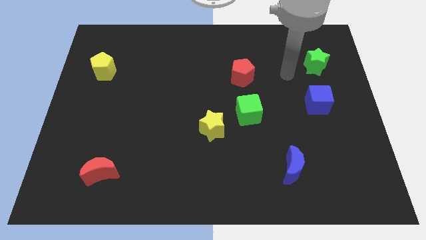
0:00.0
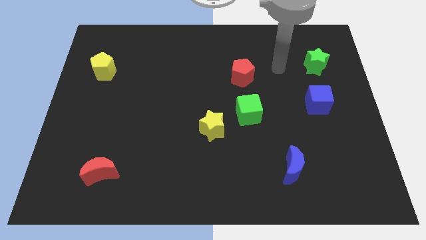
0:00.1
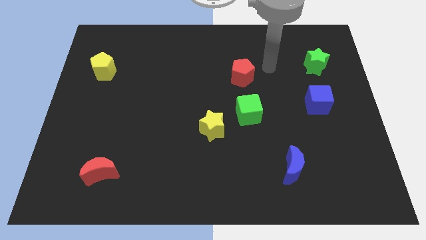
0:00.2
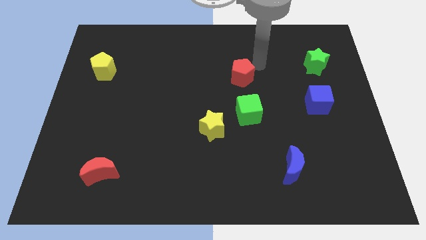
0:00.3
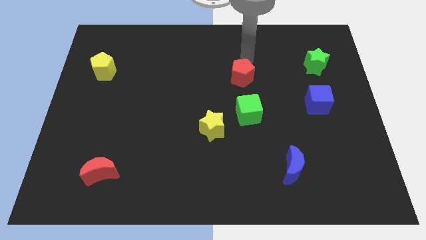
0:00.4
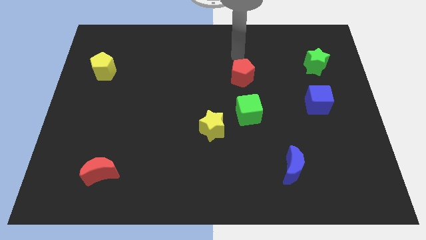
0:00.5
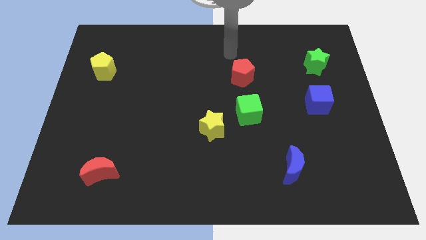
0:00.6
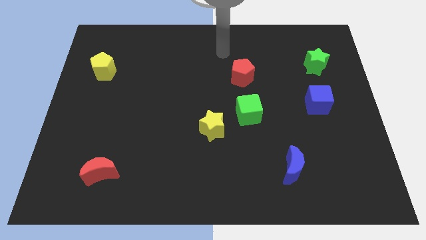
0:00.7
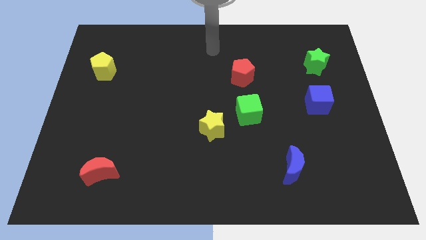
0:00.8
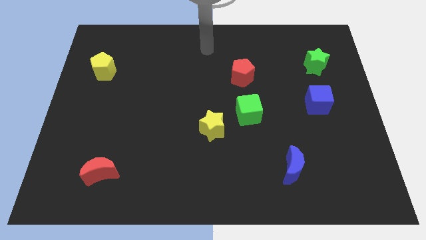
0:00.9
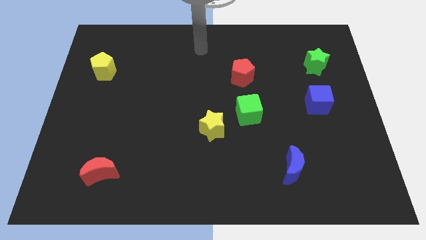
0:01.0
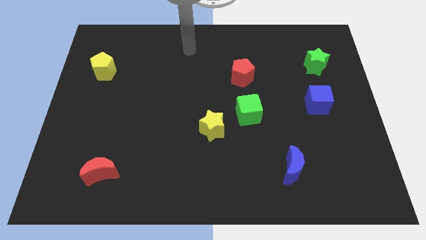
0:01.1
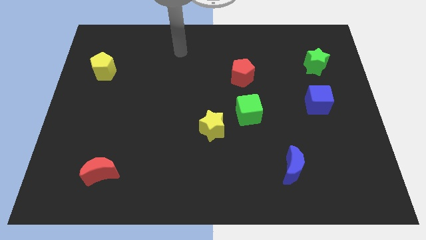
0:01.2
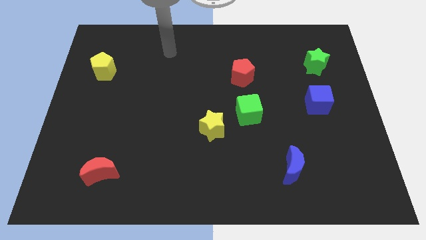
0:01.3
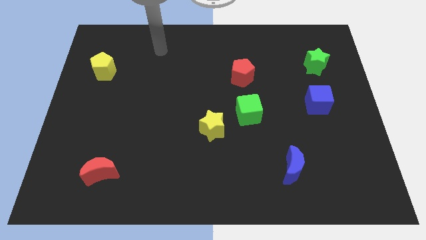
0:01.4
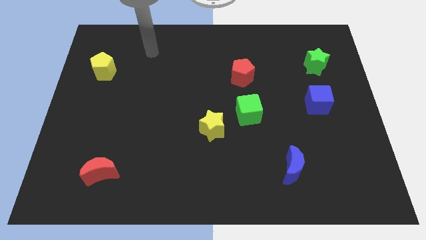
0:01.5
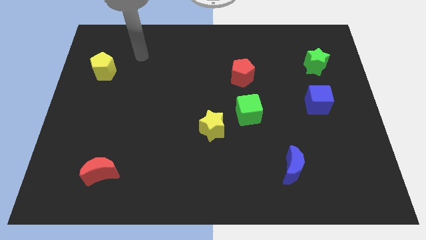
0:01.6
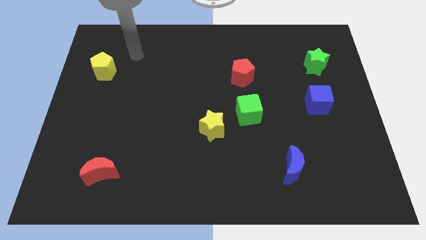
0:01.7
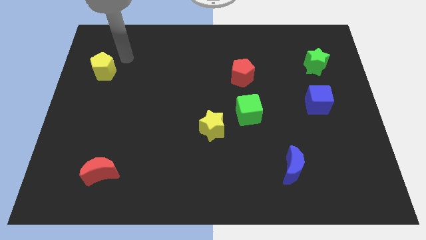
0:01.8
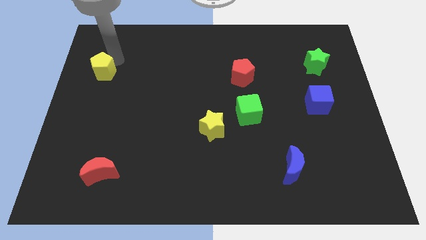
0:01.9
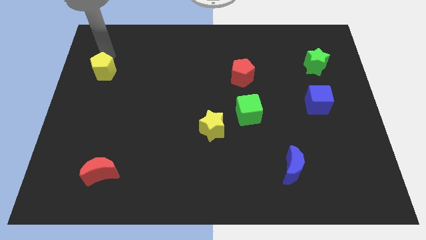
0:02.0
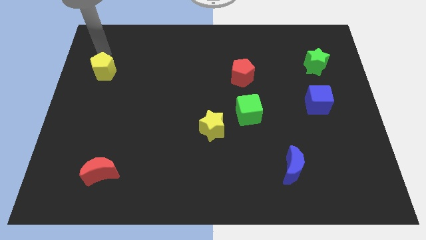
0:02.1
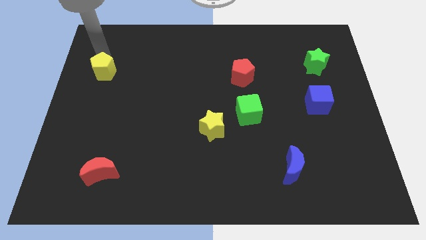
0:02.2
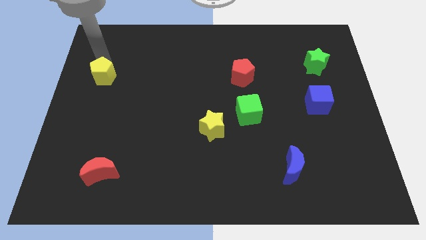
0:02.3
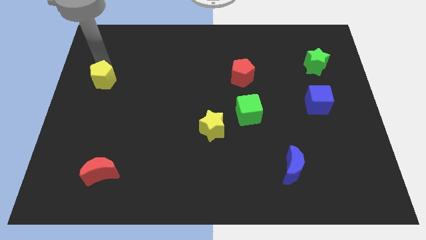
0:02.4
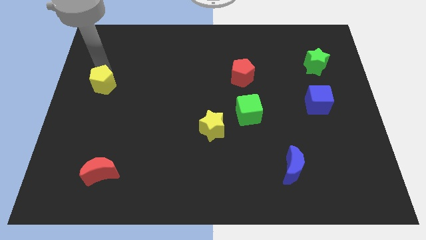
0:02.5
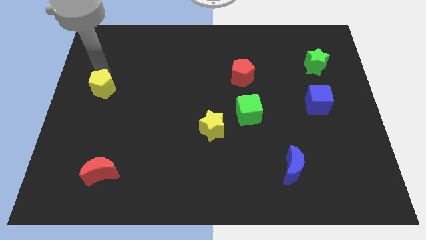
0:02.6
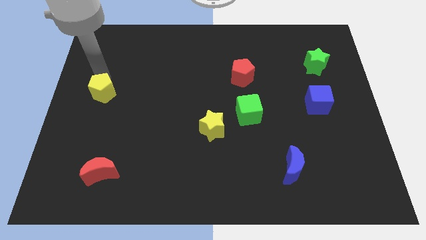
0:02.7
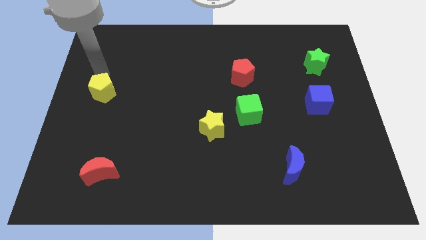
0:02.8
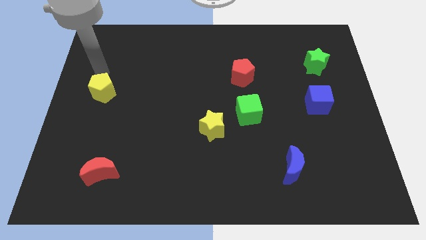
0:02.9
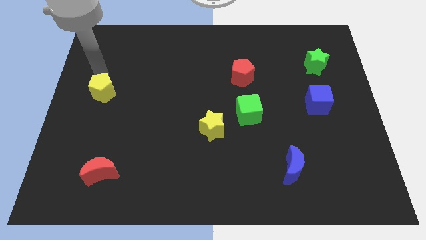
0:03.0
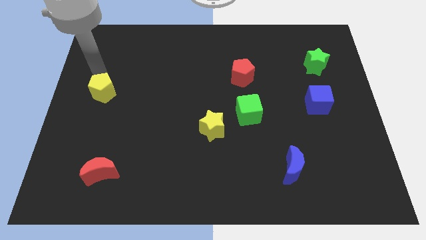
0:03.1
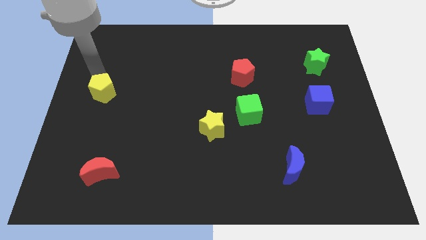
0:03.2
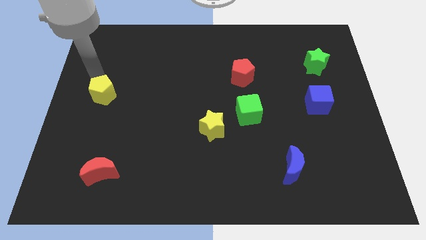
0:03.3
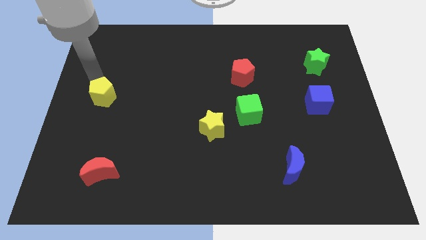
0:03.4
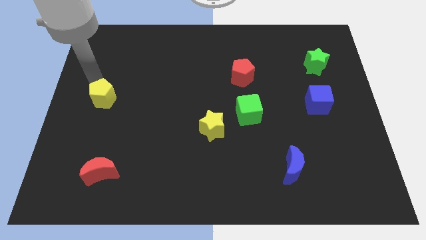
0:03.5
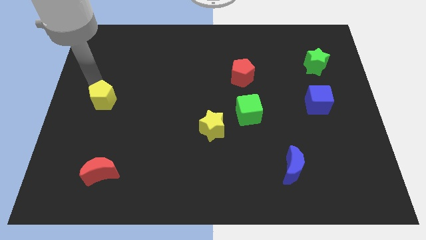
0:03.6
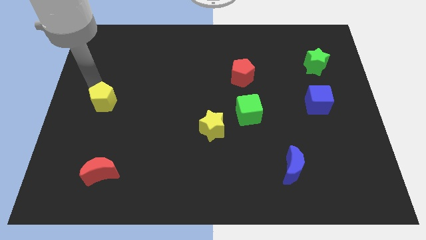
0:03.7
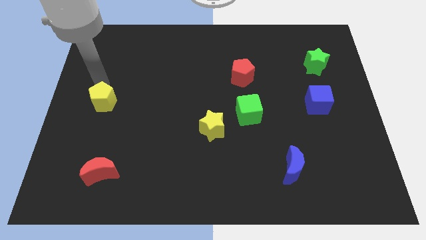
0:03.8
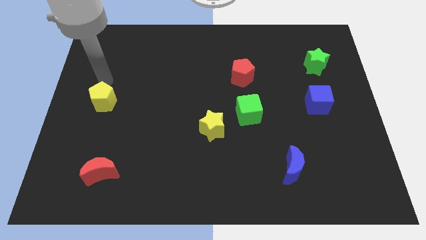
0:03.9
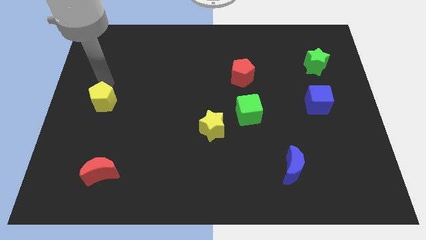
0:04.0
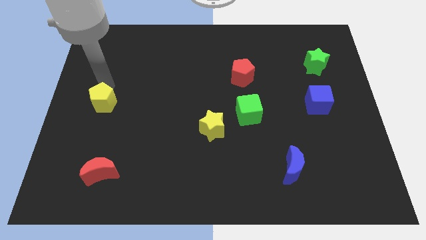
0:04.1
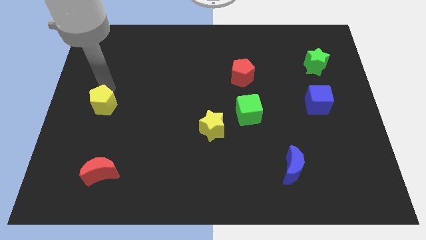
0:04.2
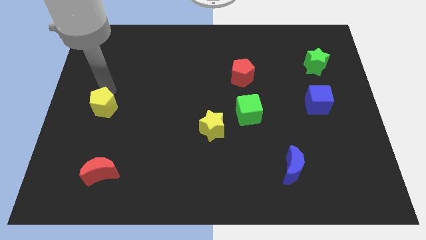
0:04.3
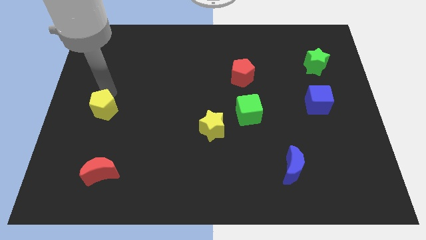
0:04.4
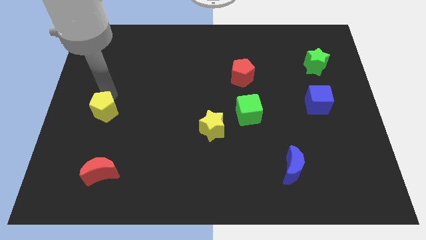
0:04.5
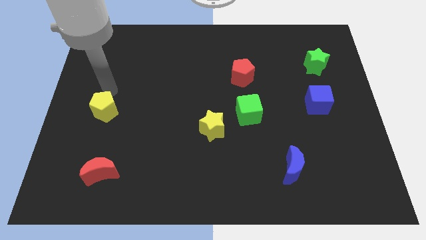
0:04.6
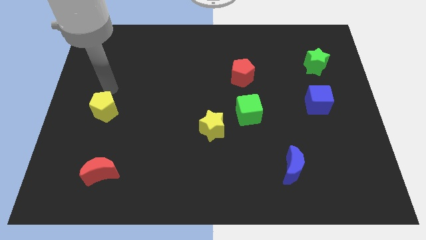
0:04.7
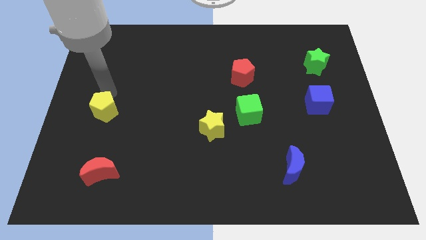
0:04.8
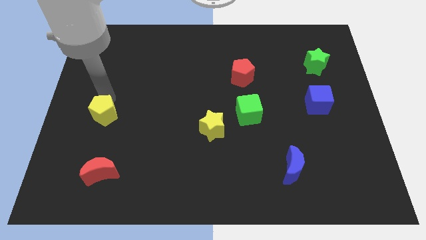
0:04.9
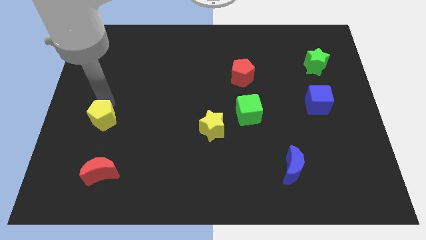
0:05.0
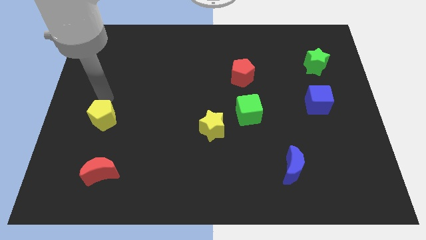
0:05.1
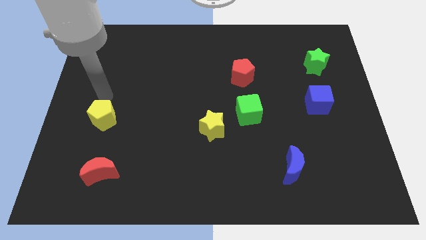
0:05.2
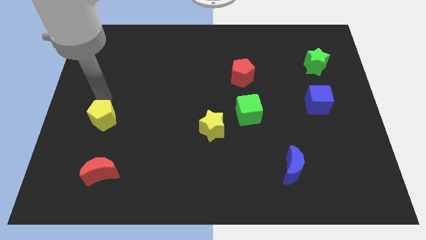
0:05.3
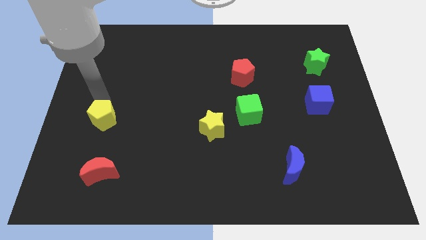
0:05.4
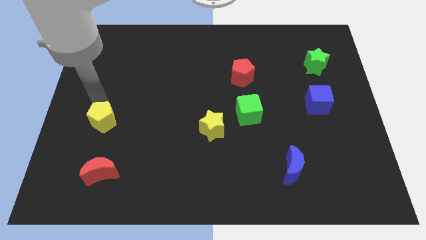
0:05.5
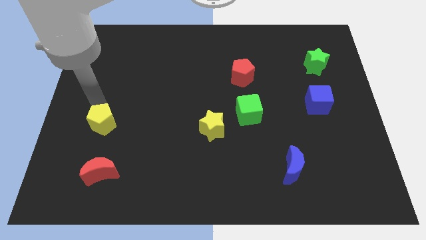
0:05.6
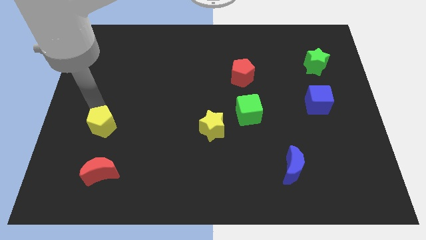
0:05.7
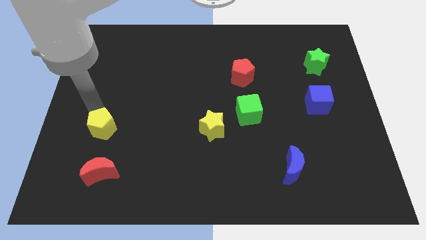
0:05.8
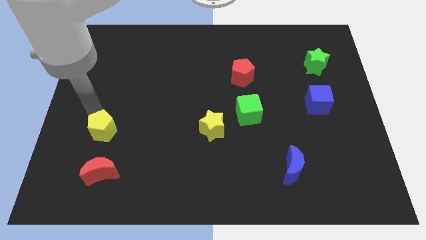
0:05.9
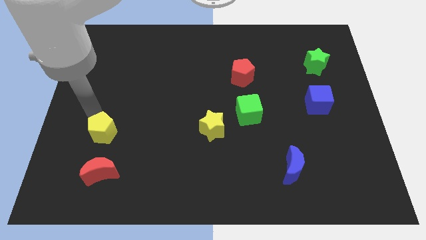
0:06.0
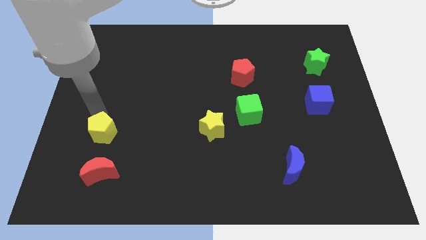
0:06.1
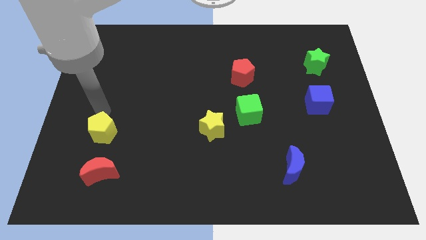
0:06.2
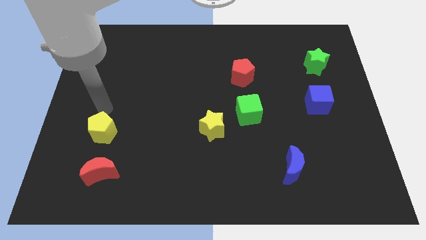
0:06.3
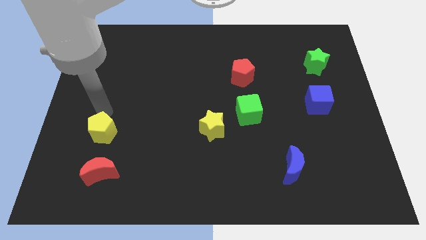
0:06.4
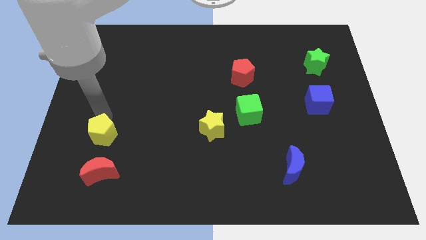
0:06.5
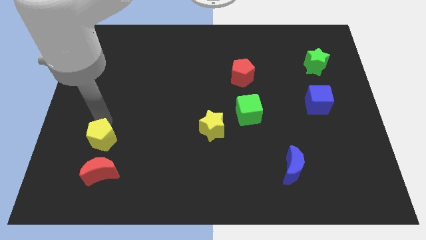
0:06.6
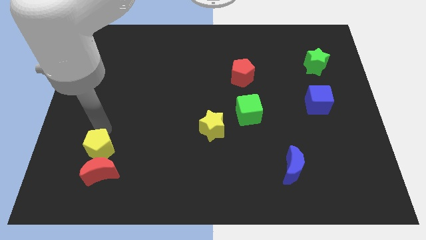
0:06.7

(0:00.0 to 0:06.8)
move the yellow pentagon to the red moon

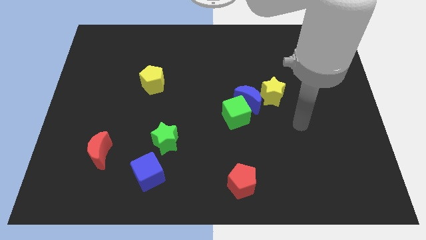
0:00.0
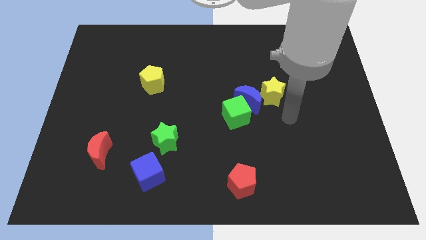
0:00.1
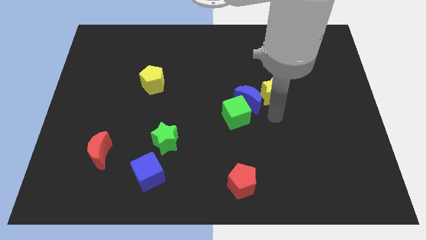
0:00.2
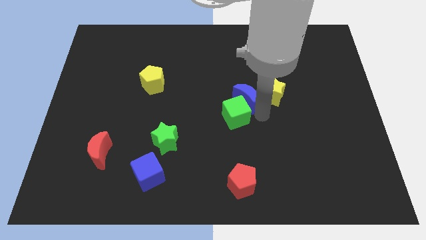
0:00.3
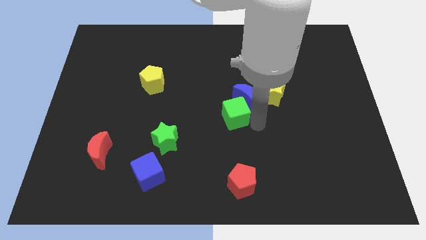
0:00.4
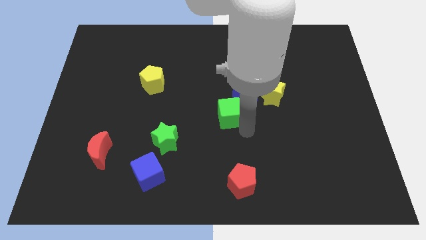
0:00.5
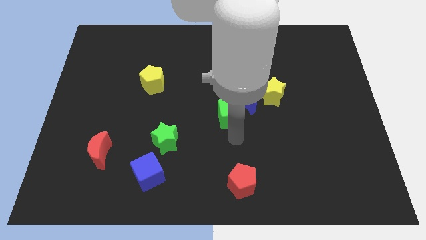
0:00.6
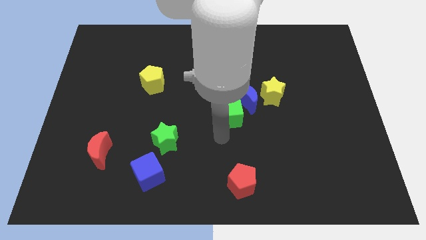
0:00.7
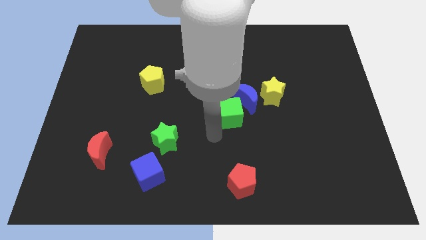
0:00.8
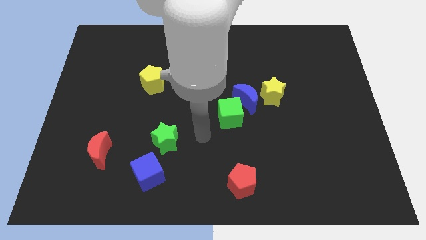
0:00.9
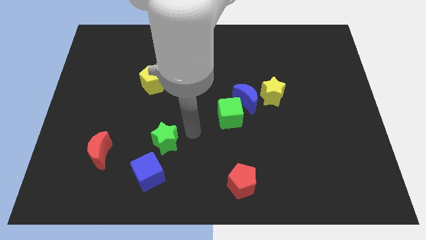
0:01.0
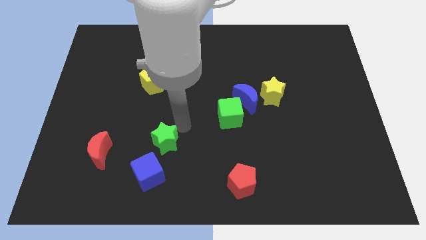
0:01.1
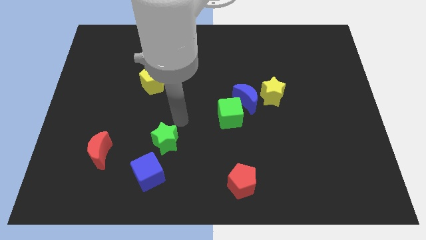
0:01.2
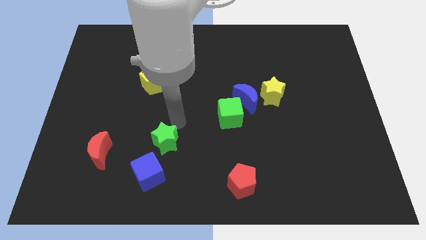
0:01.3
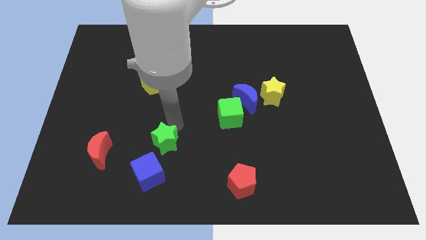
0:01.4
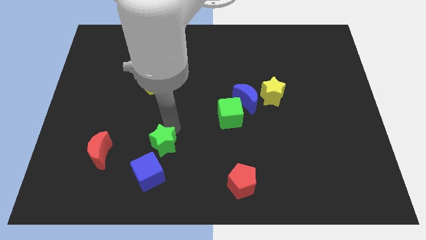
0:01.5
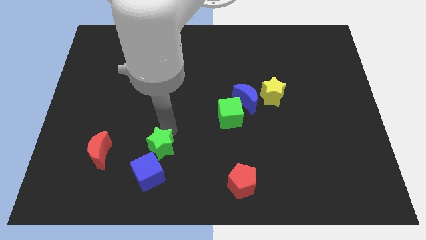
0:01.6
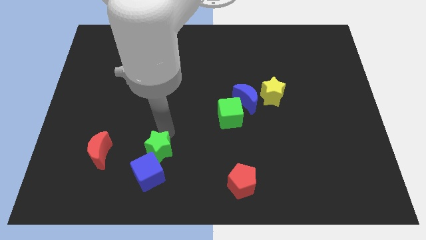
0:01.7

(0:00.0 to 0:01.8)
push the green star to the blue cube
